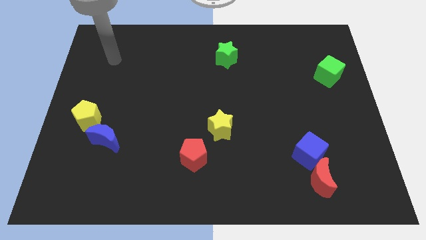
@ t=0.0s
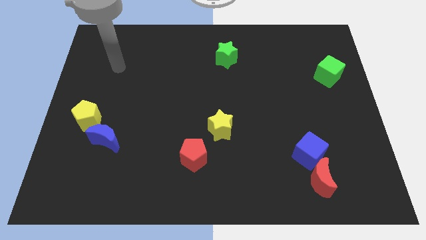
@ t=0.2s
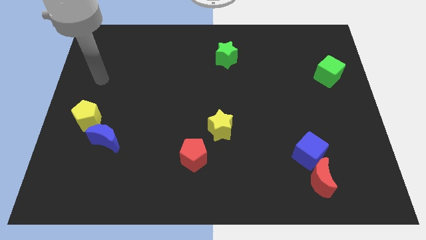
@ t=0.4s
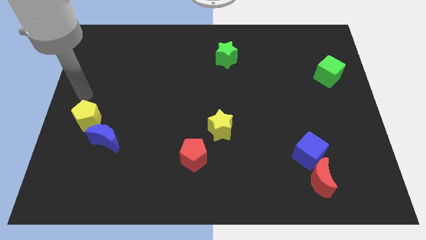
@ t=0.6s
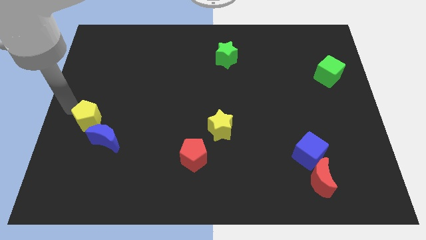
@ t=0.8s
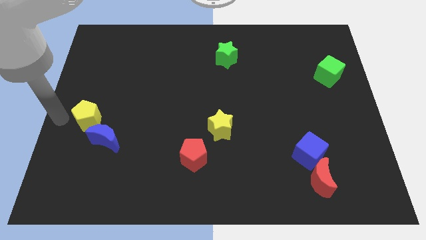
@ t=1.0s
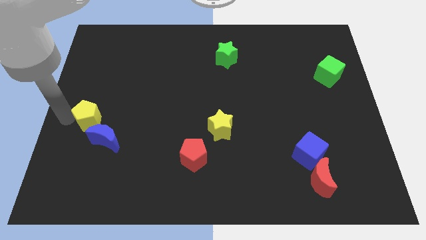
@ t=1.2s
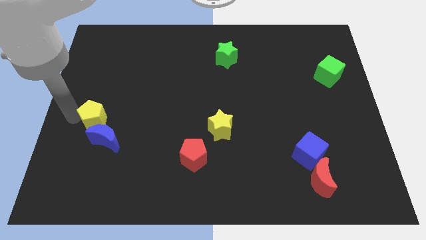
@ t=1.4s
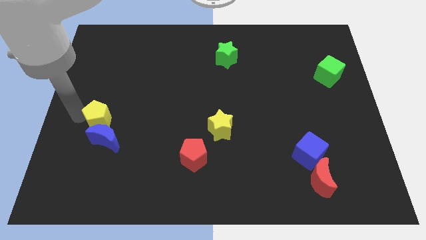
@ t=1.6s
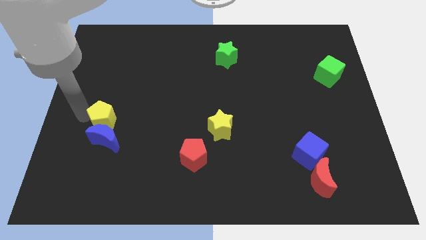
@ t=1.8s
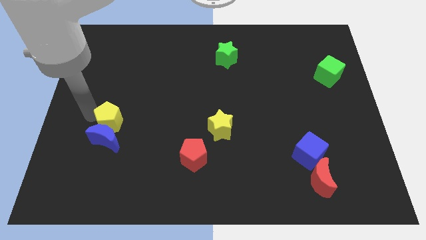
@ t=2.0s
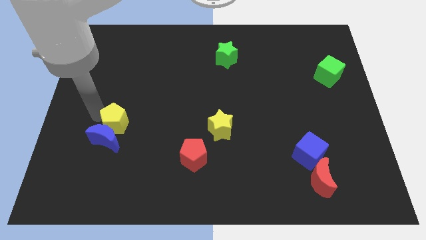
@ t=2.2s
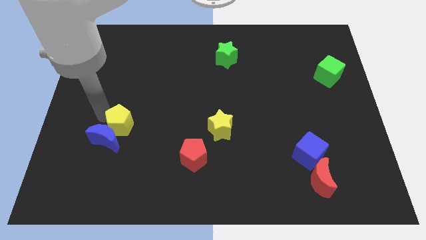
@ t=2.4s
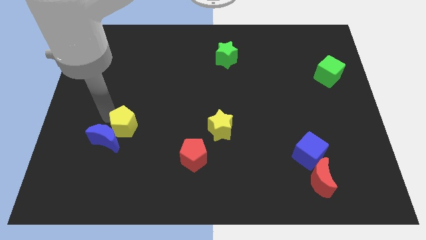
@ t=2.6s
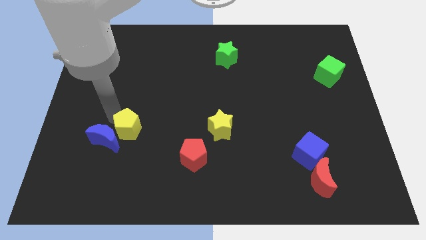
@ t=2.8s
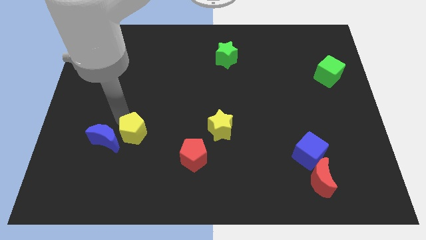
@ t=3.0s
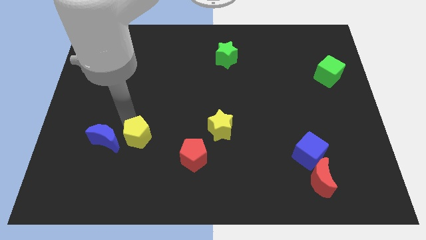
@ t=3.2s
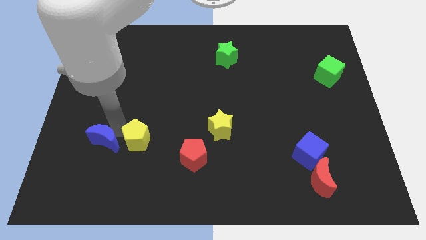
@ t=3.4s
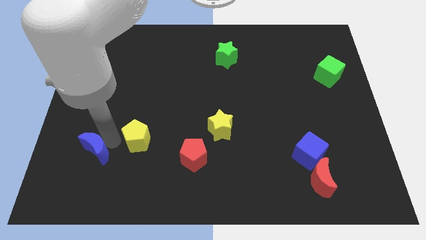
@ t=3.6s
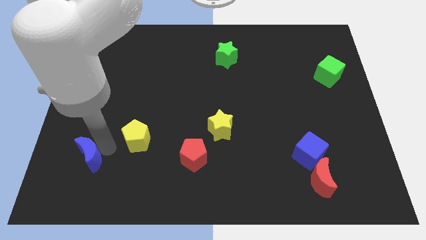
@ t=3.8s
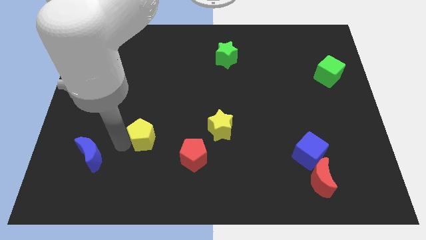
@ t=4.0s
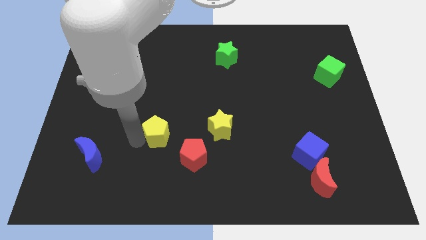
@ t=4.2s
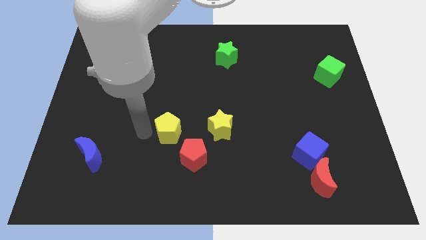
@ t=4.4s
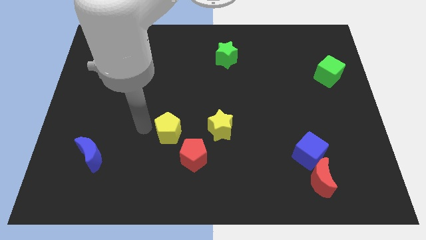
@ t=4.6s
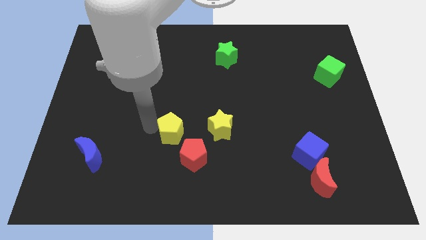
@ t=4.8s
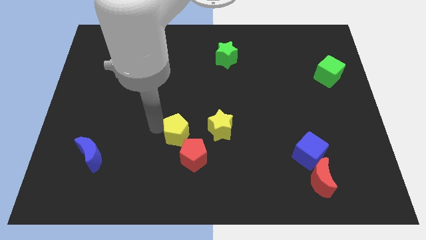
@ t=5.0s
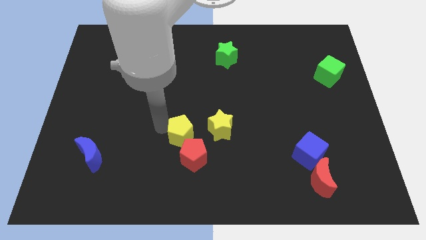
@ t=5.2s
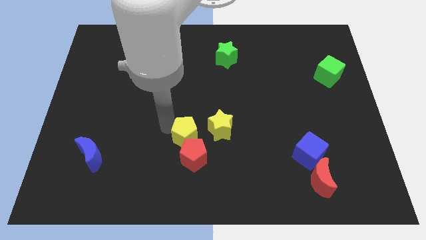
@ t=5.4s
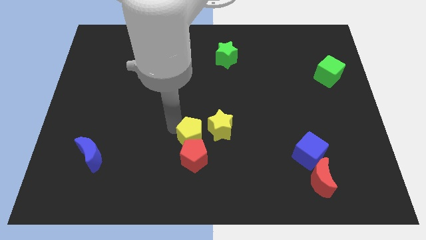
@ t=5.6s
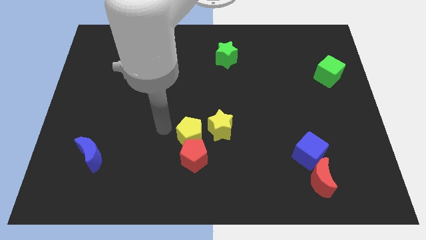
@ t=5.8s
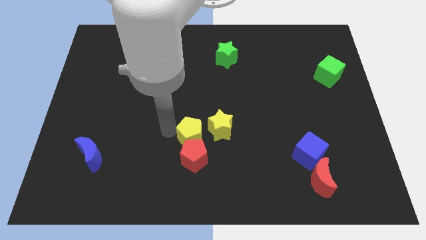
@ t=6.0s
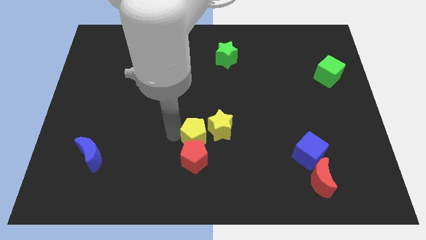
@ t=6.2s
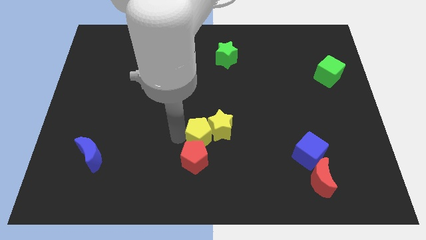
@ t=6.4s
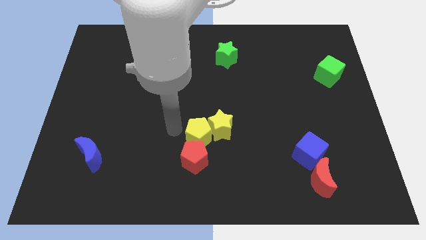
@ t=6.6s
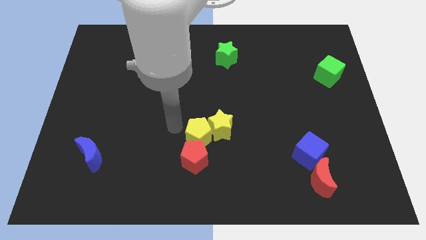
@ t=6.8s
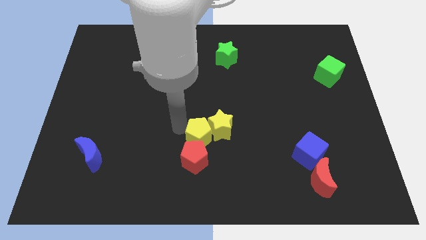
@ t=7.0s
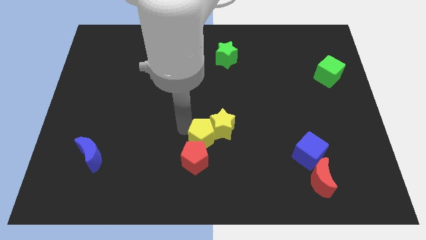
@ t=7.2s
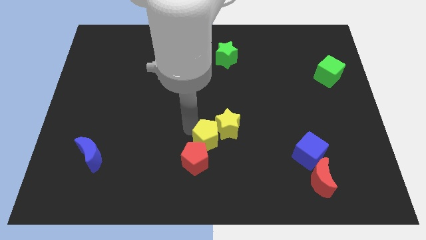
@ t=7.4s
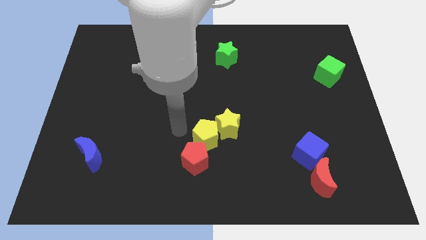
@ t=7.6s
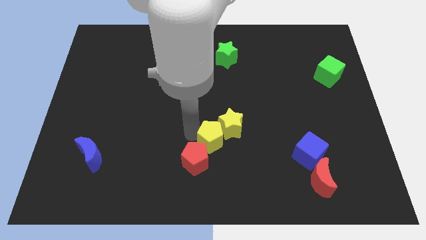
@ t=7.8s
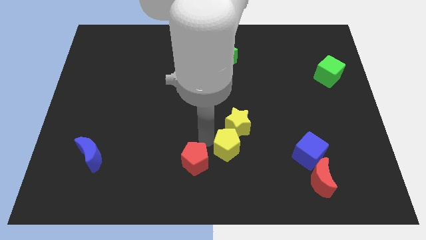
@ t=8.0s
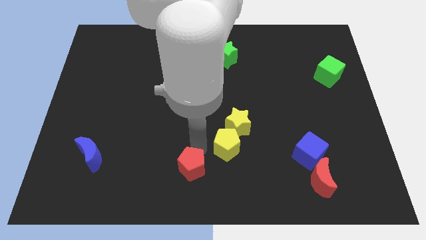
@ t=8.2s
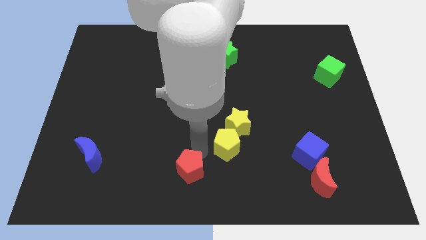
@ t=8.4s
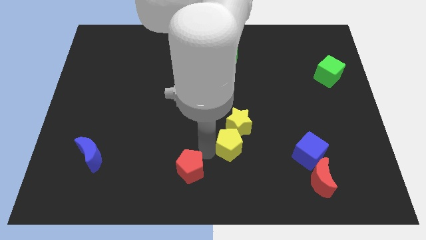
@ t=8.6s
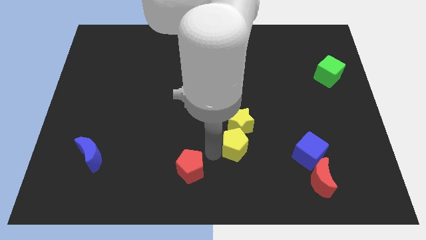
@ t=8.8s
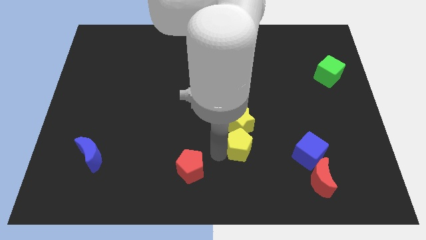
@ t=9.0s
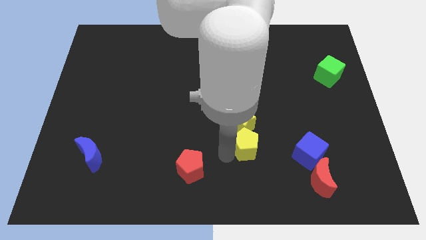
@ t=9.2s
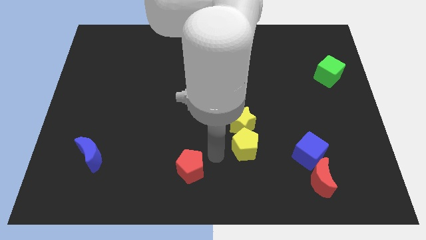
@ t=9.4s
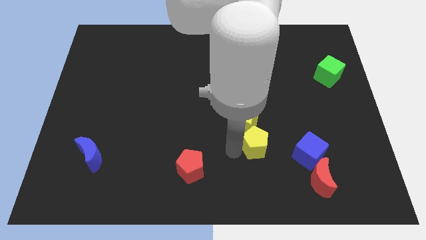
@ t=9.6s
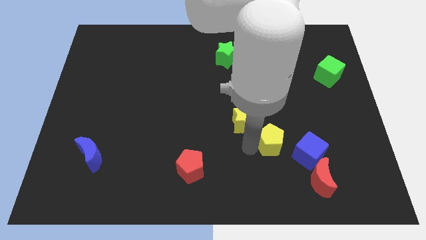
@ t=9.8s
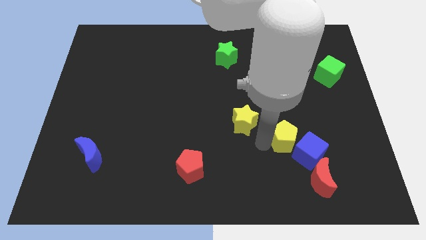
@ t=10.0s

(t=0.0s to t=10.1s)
put the yellow pentagon to the blue cube

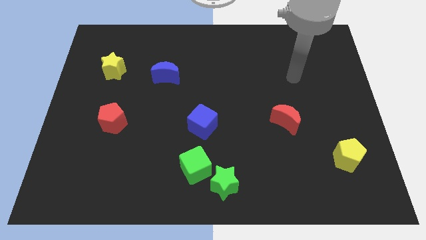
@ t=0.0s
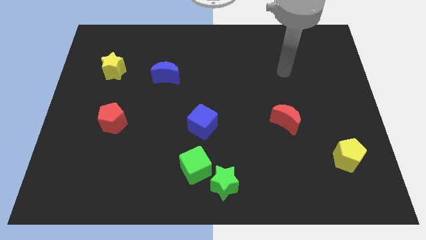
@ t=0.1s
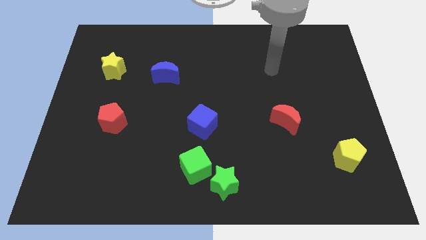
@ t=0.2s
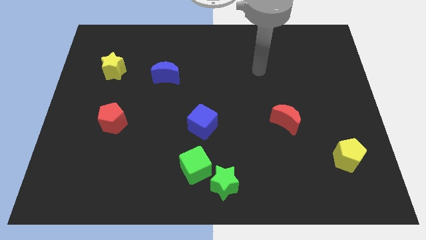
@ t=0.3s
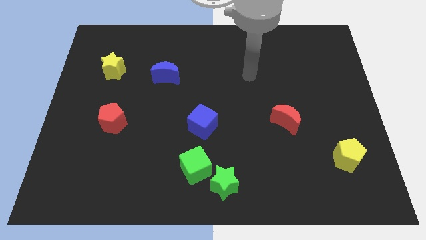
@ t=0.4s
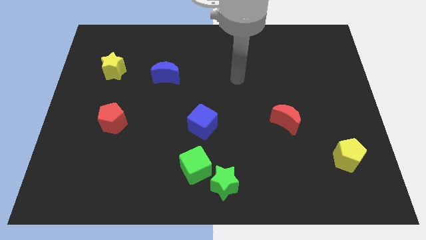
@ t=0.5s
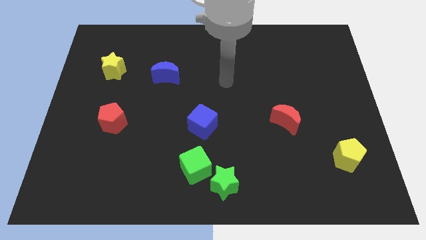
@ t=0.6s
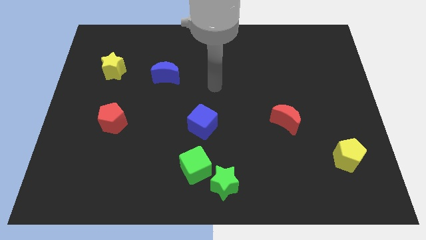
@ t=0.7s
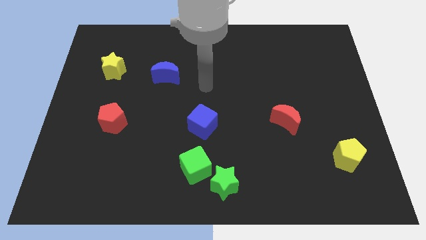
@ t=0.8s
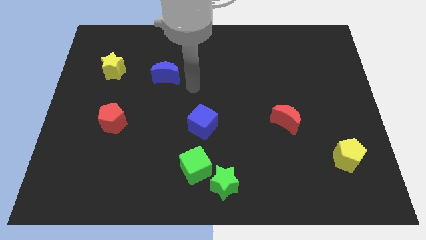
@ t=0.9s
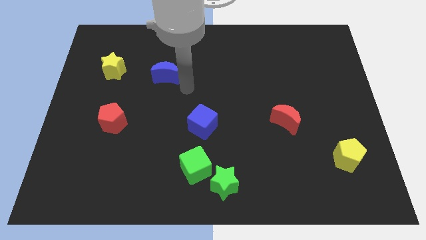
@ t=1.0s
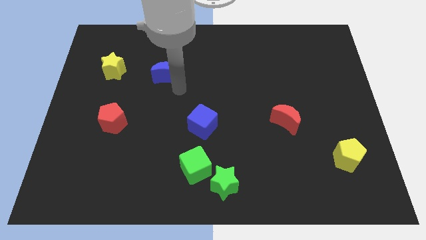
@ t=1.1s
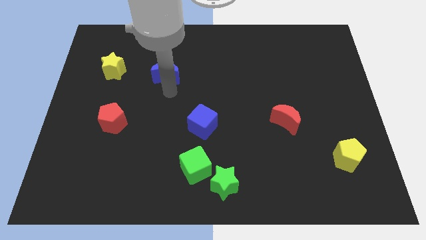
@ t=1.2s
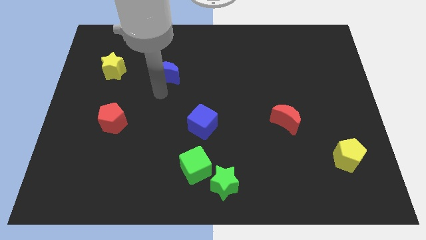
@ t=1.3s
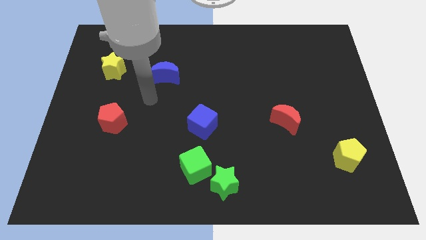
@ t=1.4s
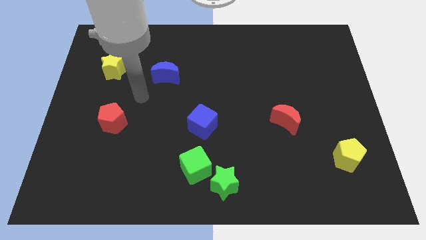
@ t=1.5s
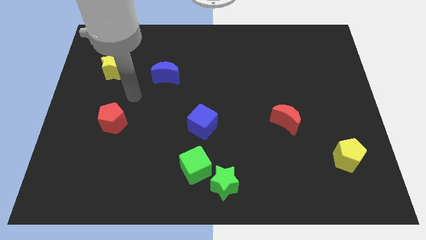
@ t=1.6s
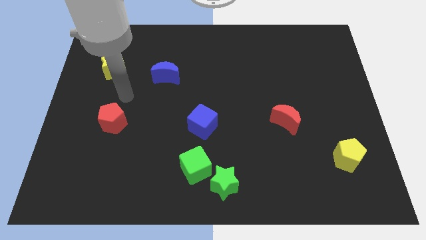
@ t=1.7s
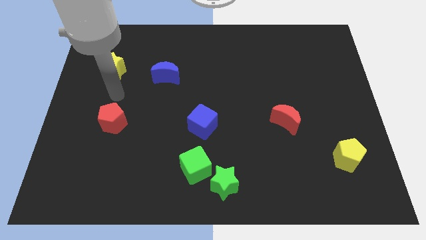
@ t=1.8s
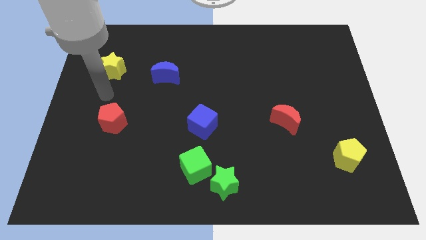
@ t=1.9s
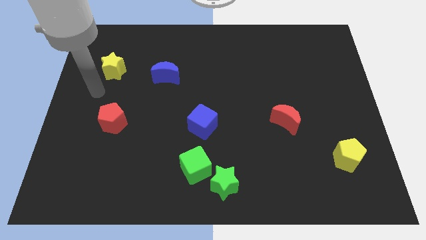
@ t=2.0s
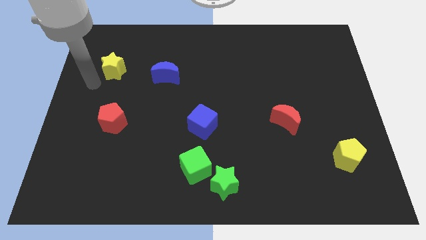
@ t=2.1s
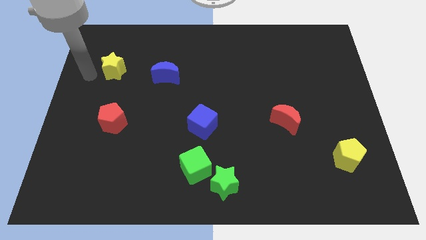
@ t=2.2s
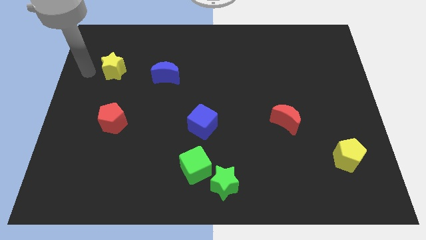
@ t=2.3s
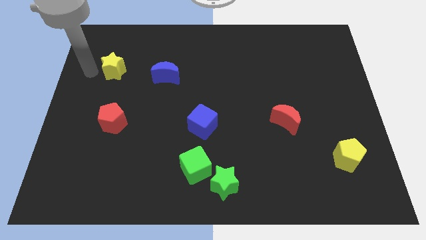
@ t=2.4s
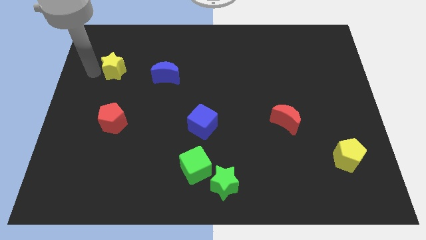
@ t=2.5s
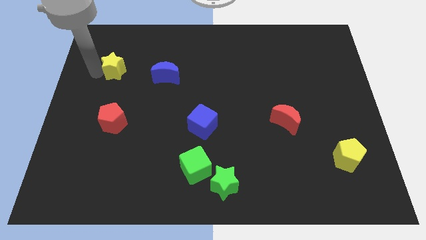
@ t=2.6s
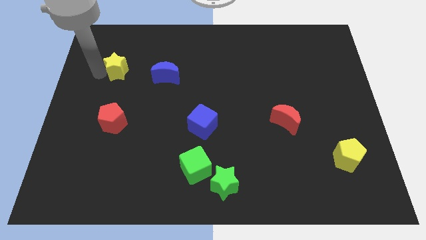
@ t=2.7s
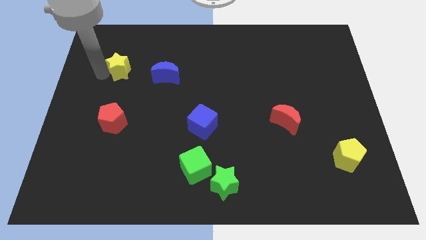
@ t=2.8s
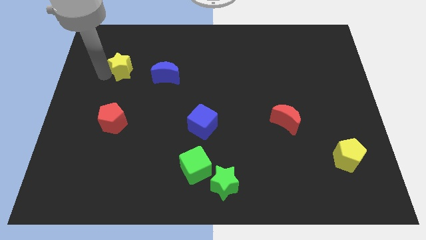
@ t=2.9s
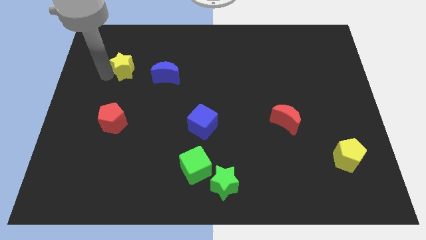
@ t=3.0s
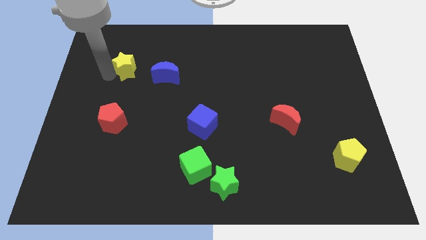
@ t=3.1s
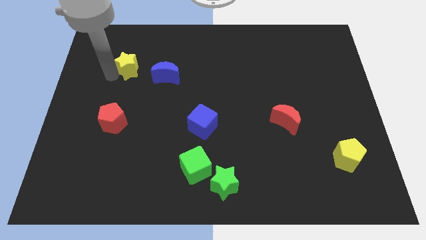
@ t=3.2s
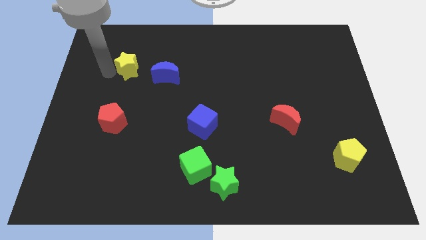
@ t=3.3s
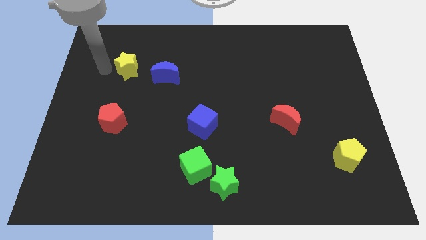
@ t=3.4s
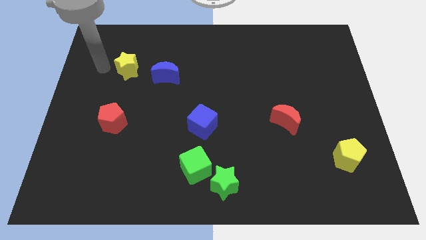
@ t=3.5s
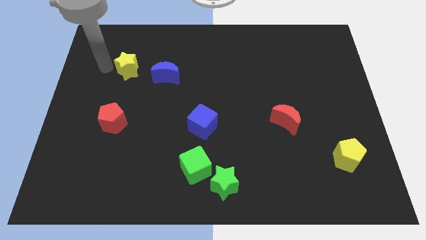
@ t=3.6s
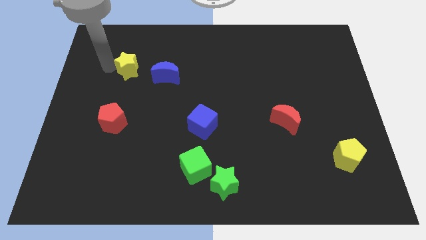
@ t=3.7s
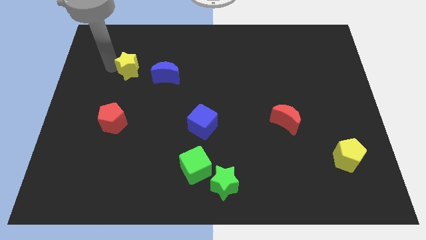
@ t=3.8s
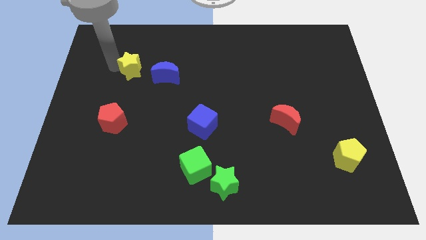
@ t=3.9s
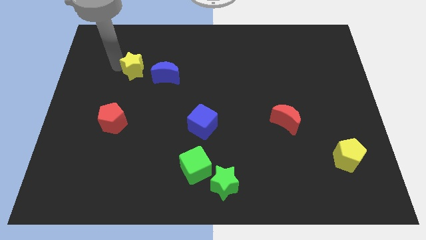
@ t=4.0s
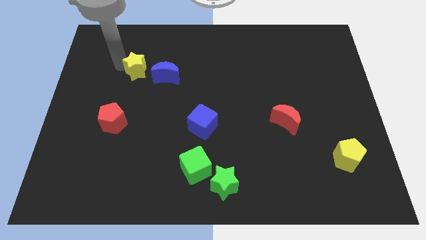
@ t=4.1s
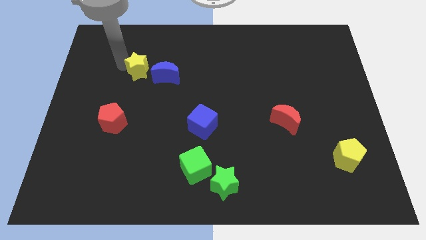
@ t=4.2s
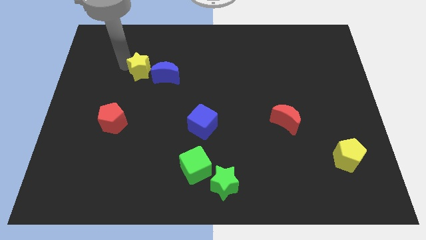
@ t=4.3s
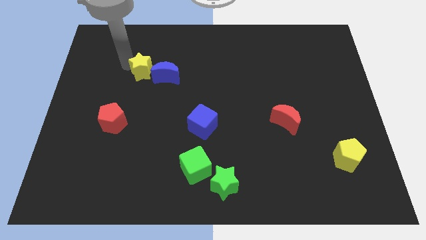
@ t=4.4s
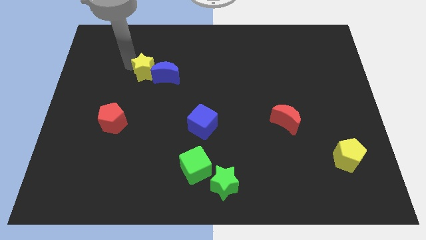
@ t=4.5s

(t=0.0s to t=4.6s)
put the yellow star next to the blue moon
